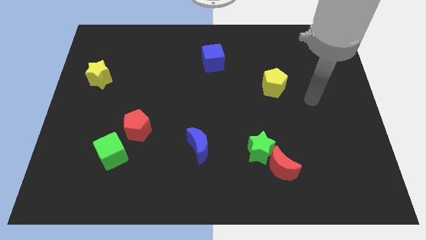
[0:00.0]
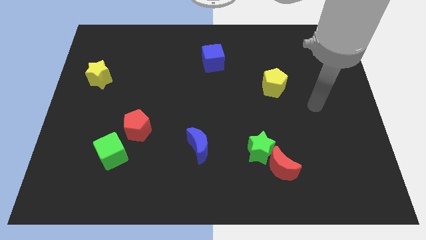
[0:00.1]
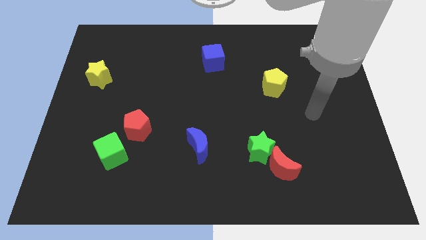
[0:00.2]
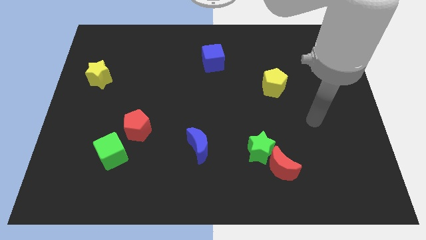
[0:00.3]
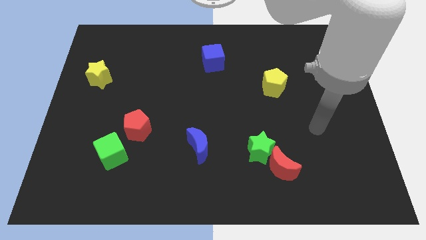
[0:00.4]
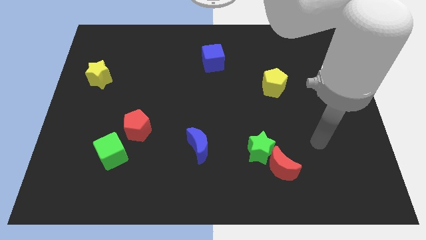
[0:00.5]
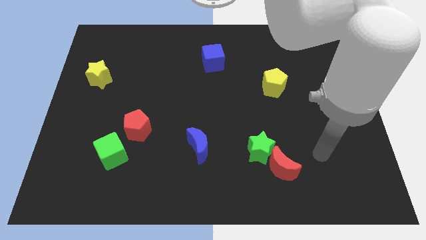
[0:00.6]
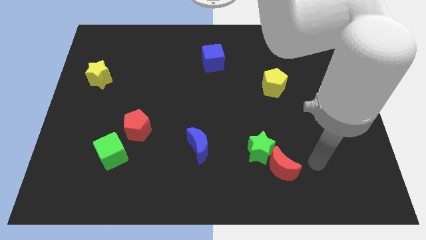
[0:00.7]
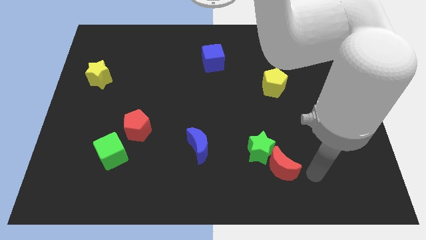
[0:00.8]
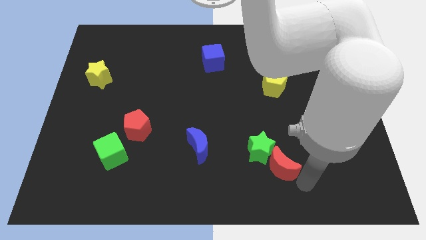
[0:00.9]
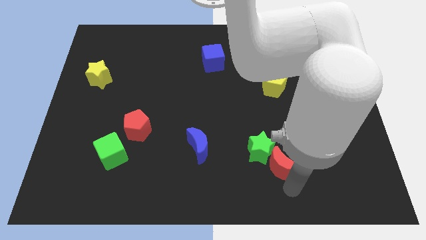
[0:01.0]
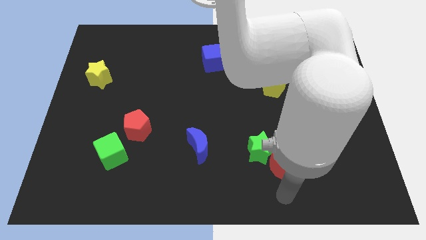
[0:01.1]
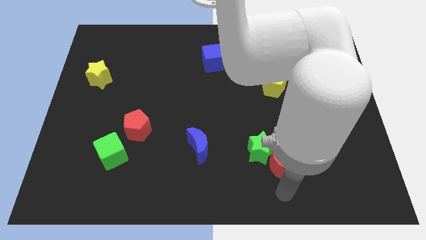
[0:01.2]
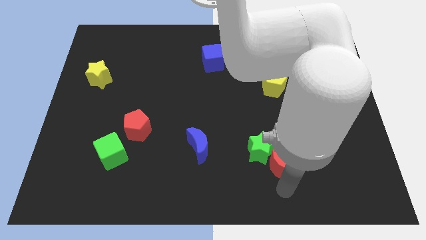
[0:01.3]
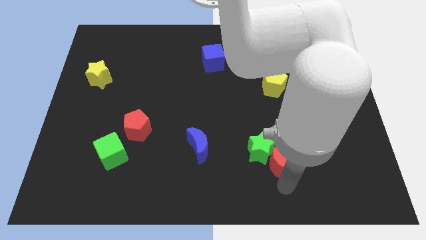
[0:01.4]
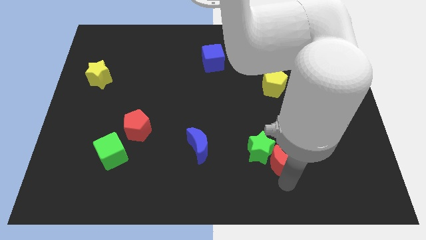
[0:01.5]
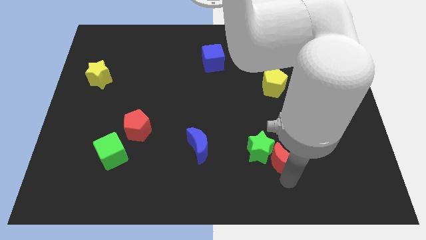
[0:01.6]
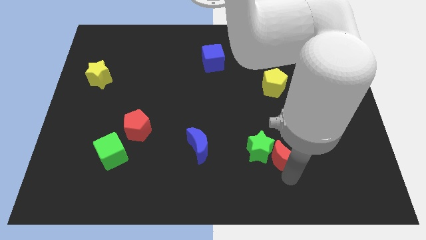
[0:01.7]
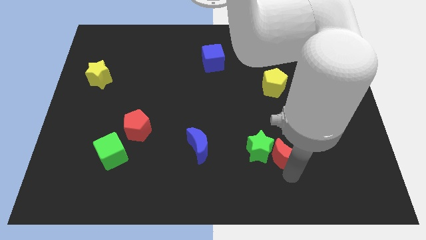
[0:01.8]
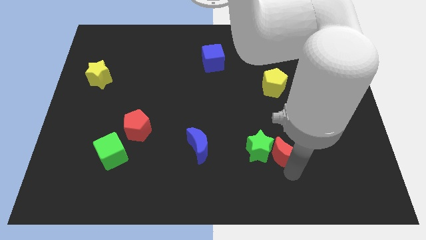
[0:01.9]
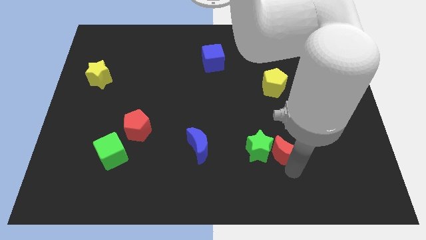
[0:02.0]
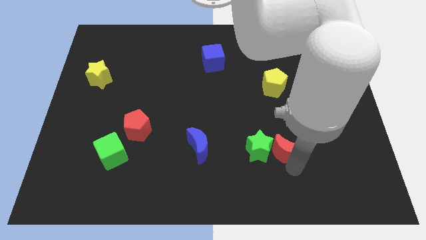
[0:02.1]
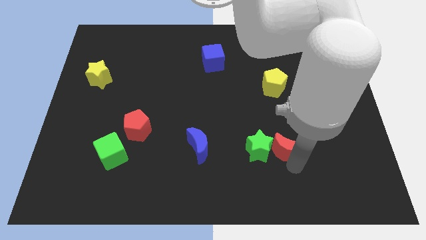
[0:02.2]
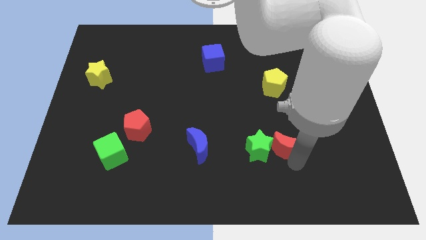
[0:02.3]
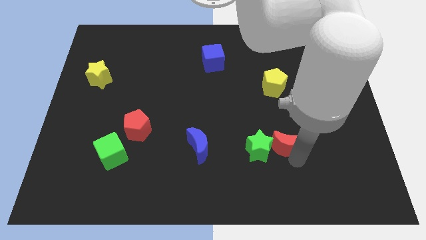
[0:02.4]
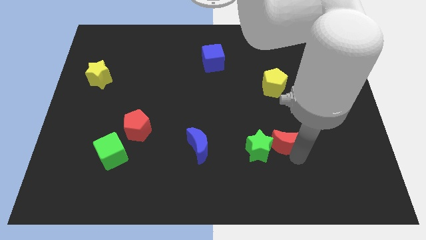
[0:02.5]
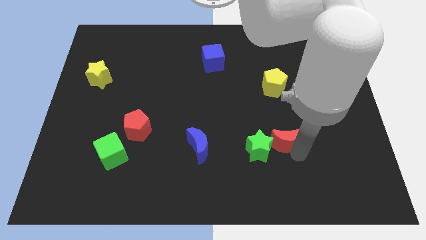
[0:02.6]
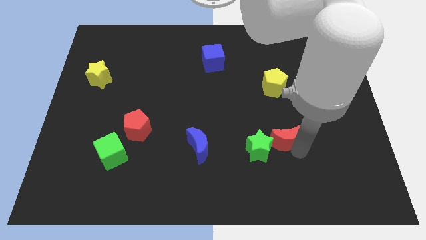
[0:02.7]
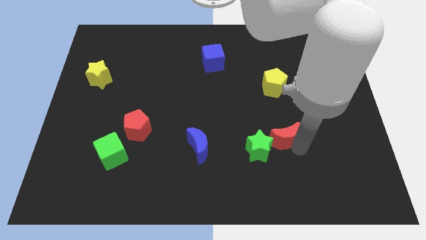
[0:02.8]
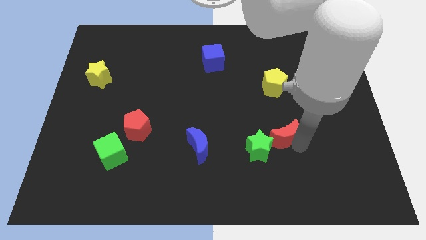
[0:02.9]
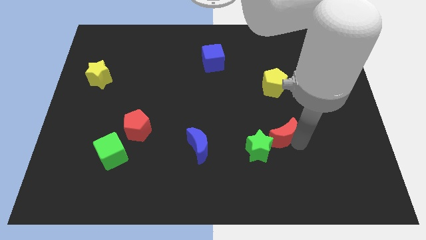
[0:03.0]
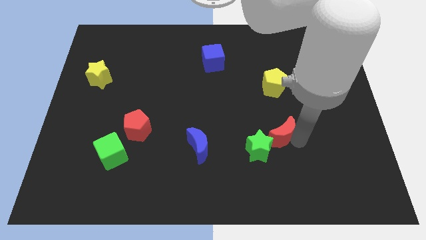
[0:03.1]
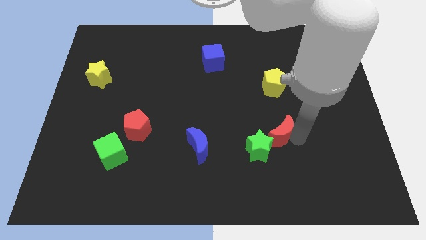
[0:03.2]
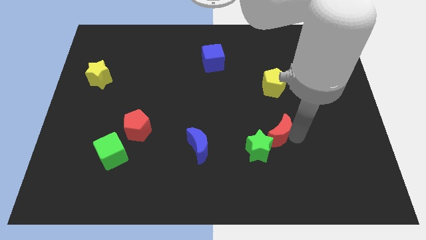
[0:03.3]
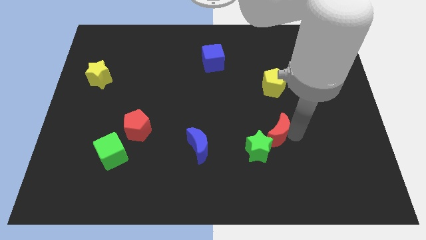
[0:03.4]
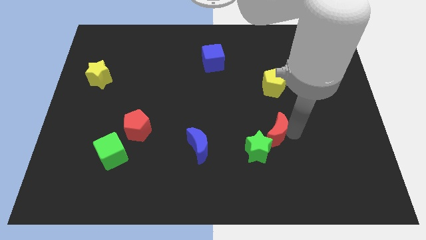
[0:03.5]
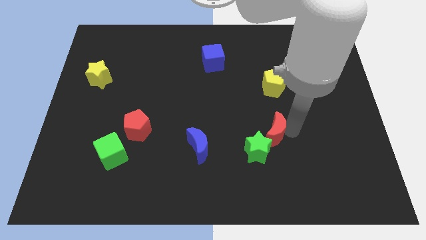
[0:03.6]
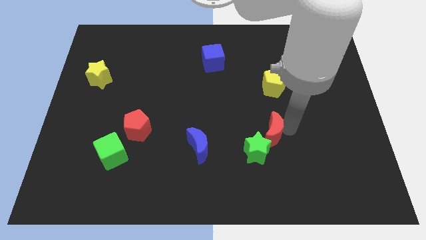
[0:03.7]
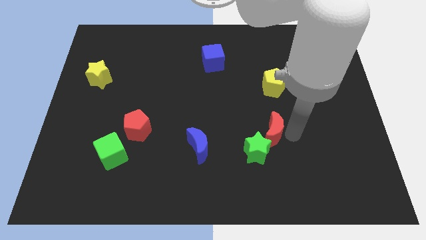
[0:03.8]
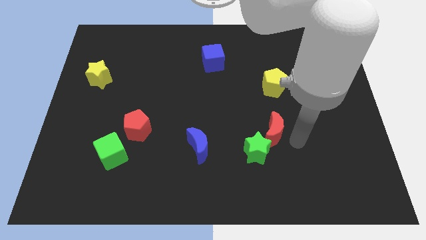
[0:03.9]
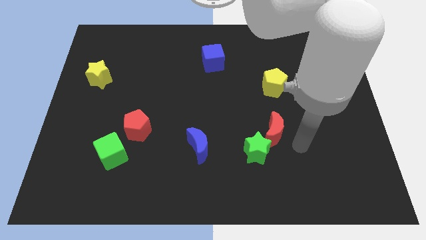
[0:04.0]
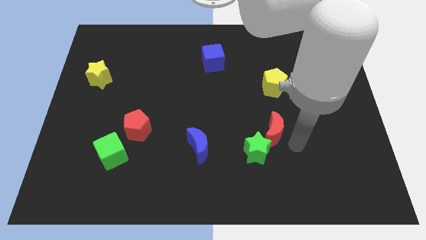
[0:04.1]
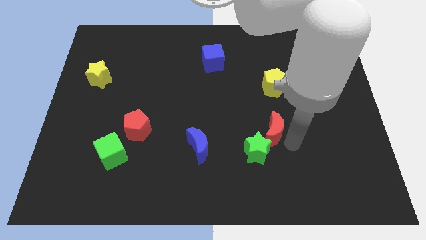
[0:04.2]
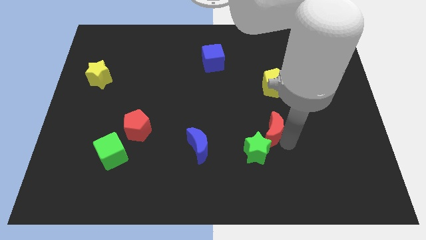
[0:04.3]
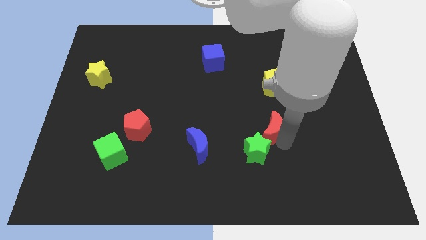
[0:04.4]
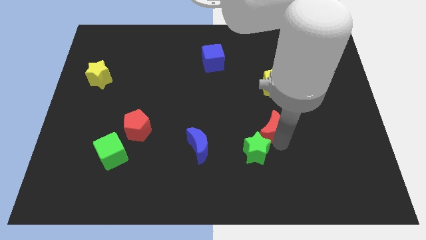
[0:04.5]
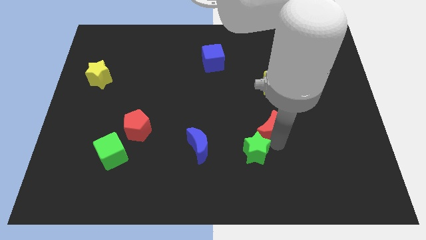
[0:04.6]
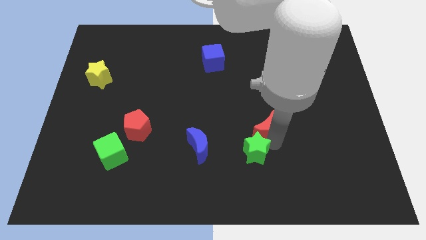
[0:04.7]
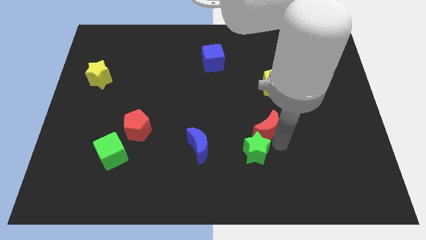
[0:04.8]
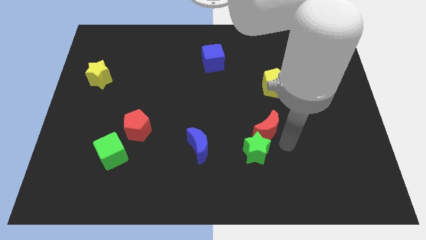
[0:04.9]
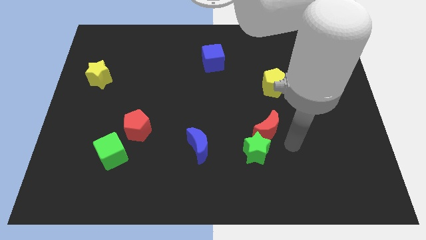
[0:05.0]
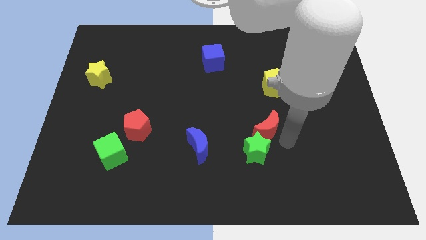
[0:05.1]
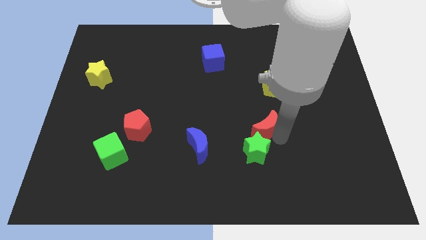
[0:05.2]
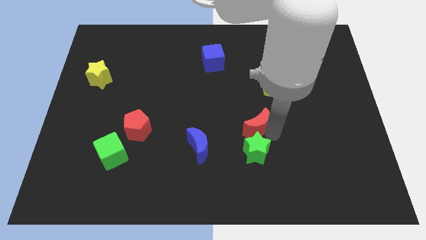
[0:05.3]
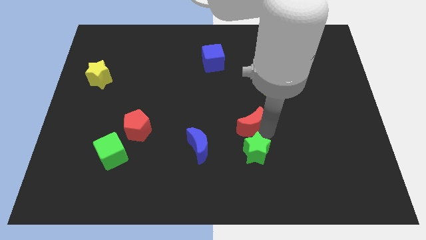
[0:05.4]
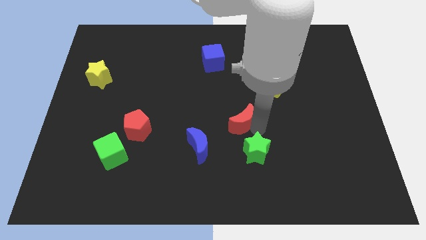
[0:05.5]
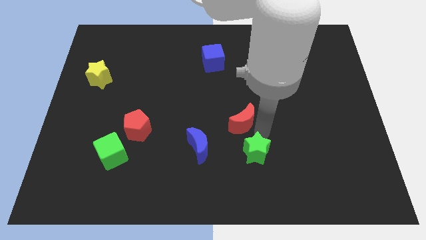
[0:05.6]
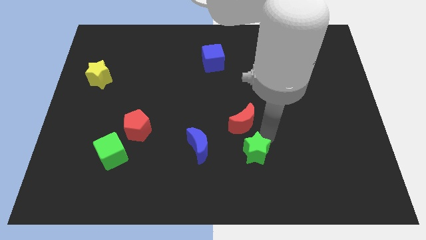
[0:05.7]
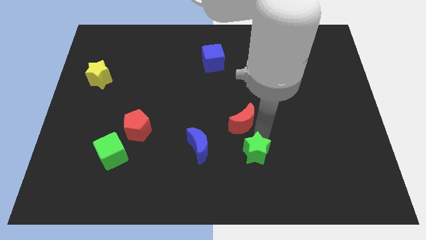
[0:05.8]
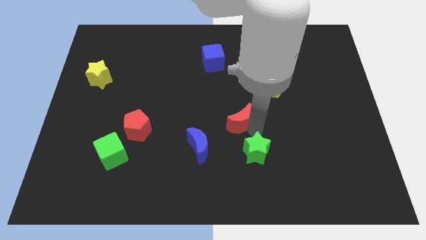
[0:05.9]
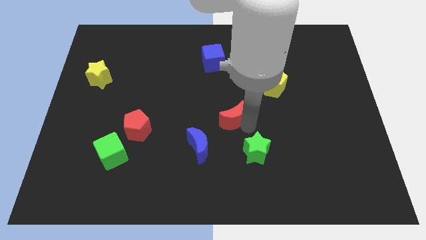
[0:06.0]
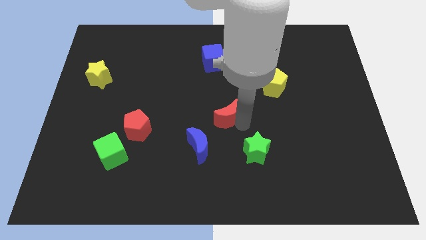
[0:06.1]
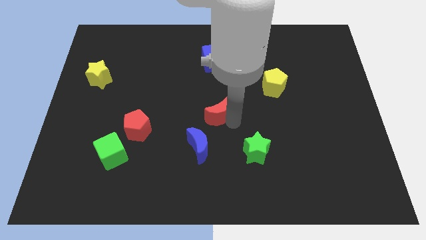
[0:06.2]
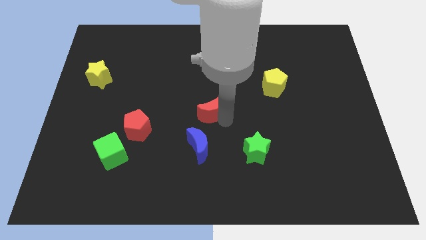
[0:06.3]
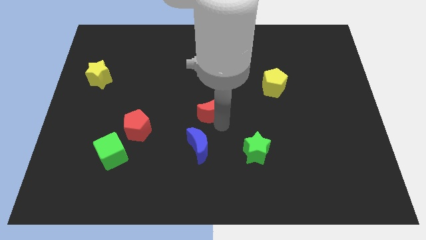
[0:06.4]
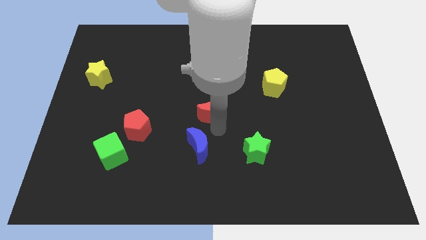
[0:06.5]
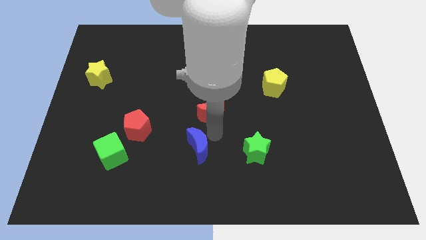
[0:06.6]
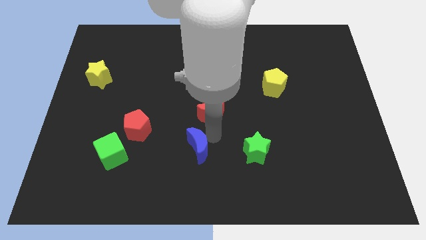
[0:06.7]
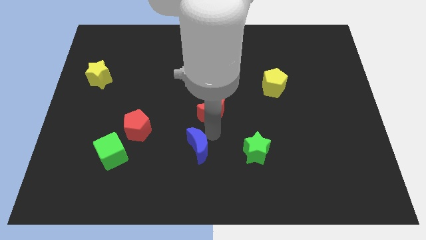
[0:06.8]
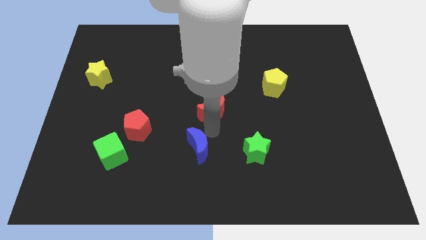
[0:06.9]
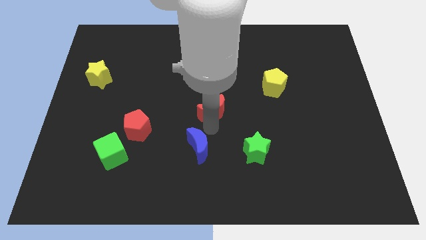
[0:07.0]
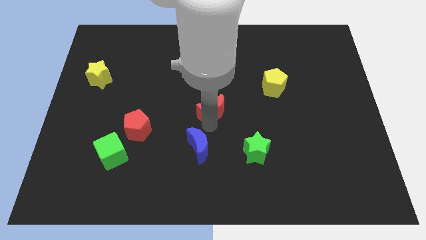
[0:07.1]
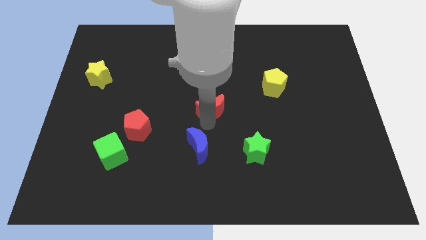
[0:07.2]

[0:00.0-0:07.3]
put the red moon to the bottom side of the blue cube
